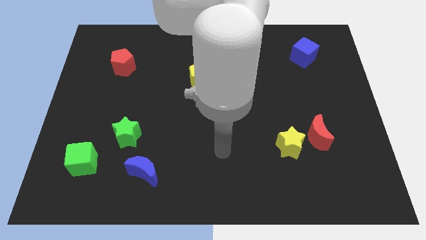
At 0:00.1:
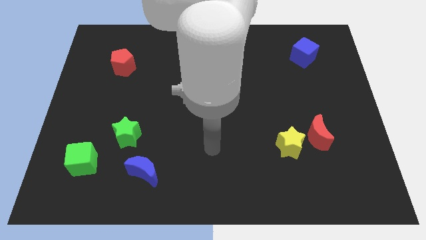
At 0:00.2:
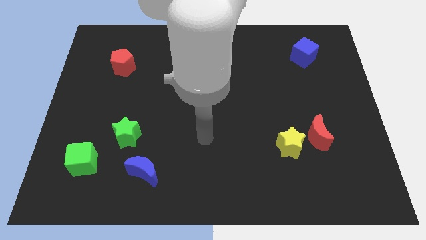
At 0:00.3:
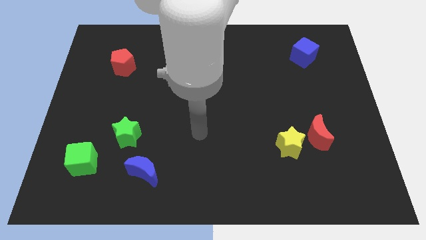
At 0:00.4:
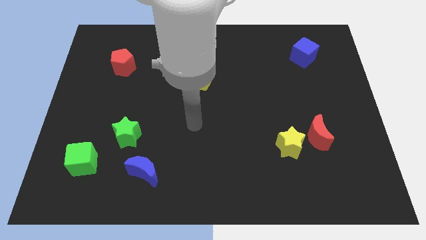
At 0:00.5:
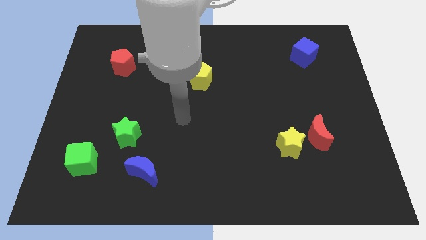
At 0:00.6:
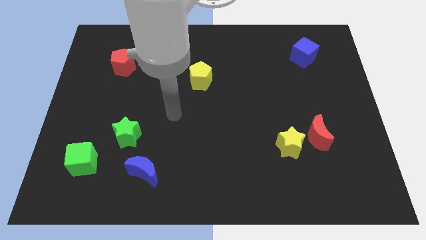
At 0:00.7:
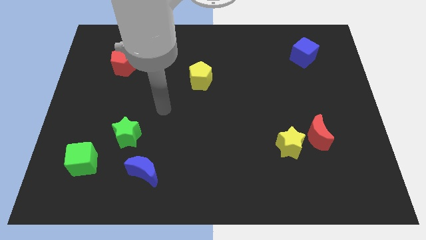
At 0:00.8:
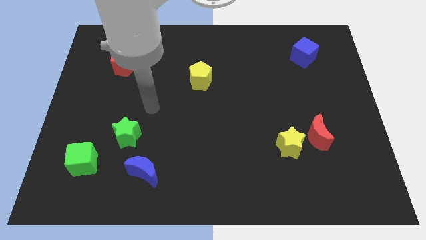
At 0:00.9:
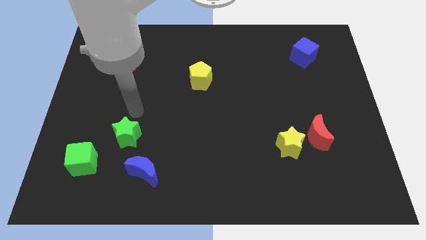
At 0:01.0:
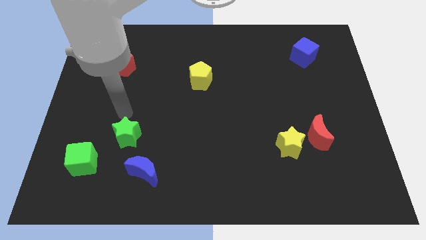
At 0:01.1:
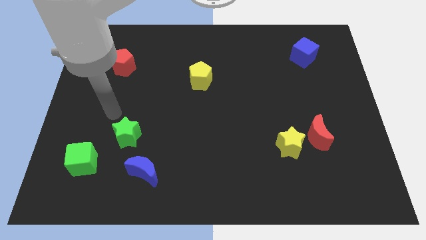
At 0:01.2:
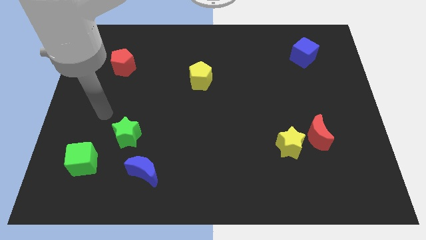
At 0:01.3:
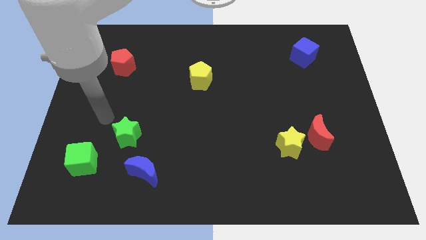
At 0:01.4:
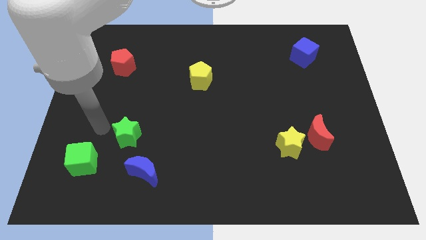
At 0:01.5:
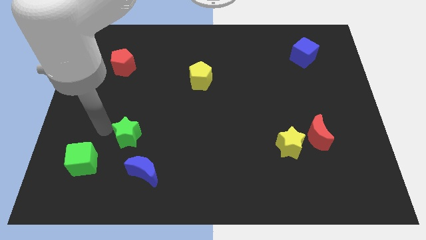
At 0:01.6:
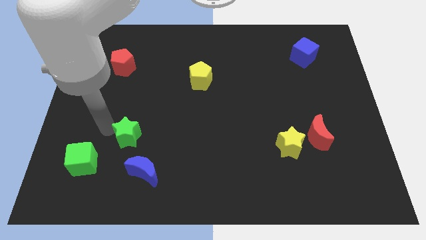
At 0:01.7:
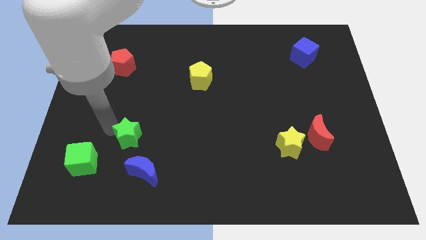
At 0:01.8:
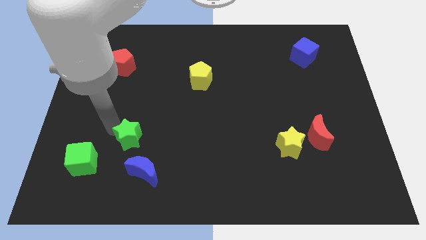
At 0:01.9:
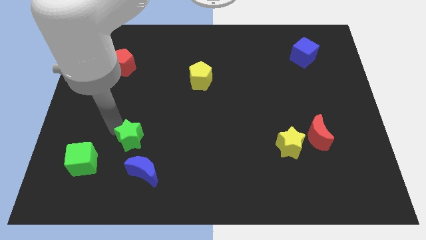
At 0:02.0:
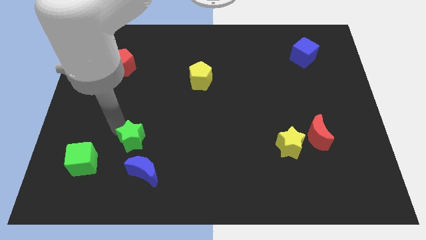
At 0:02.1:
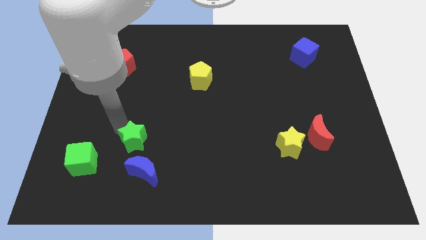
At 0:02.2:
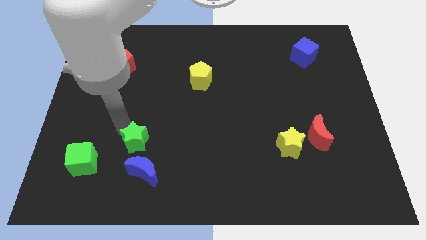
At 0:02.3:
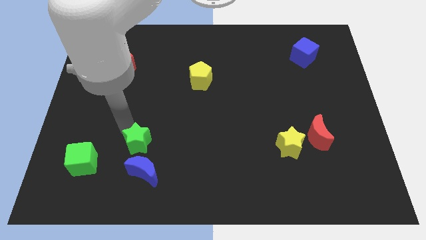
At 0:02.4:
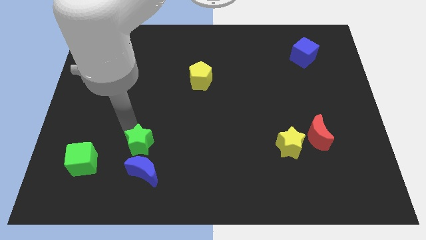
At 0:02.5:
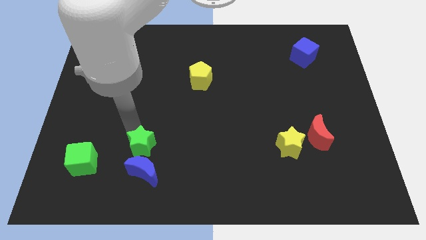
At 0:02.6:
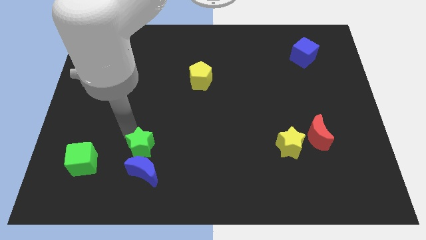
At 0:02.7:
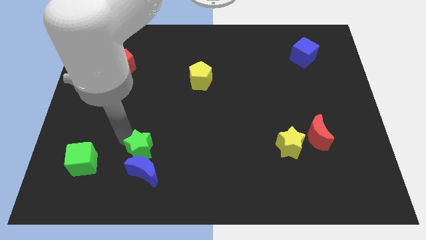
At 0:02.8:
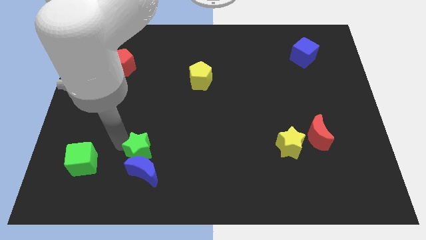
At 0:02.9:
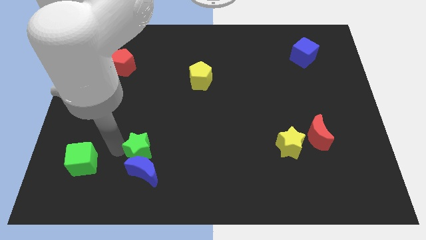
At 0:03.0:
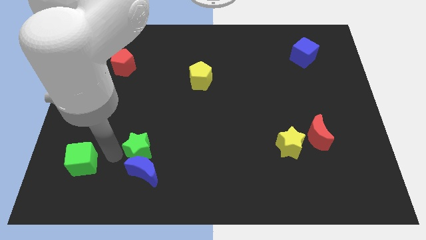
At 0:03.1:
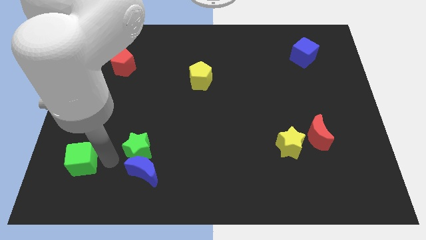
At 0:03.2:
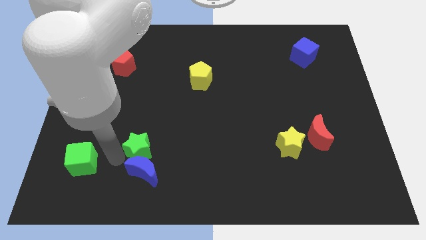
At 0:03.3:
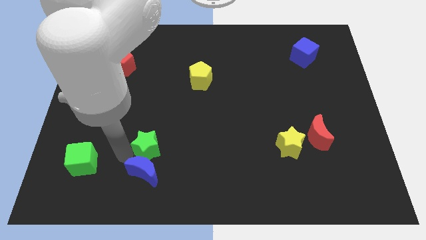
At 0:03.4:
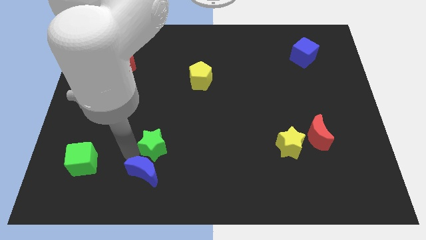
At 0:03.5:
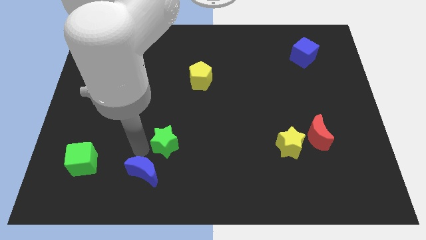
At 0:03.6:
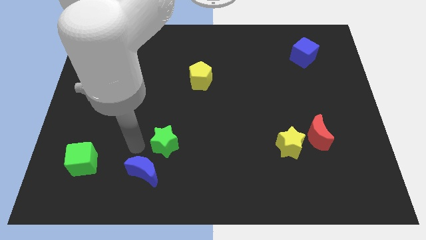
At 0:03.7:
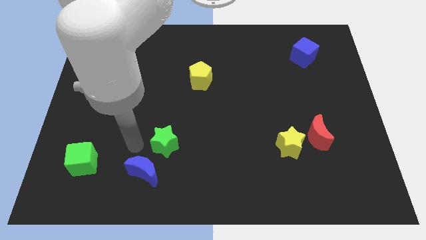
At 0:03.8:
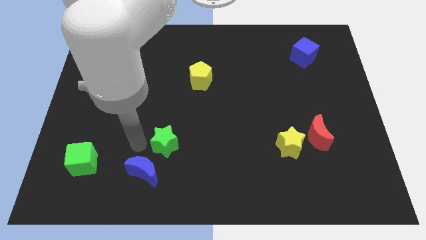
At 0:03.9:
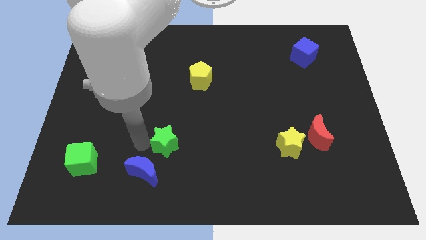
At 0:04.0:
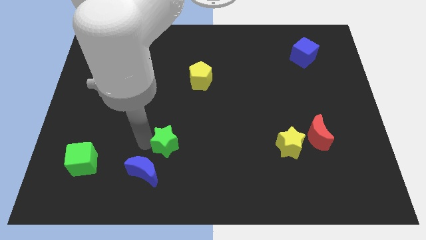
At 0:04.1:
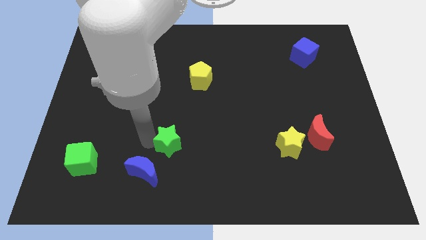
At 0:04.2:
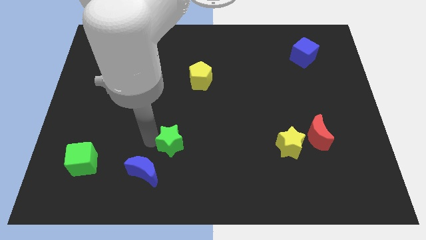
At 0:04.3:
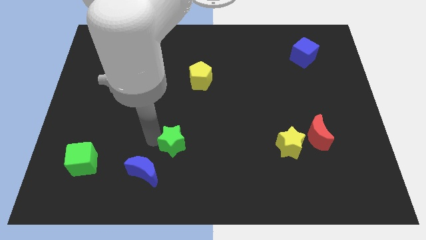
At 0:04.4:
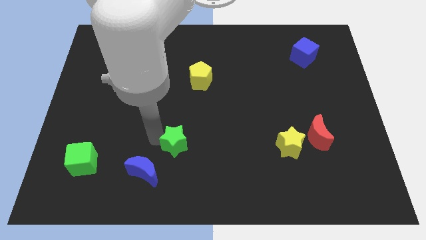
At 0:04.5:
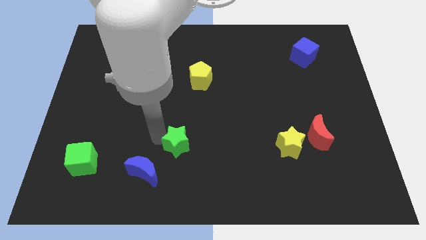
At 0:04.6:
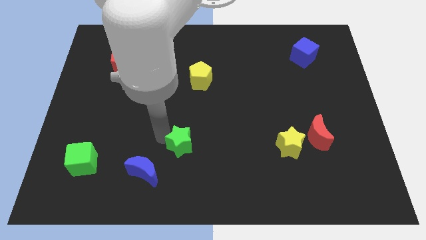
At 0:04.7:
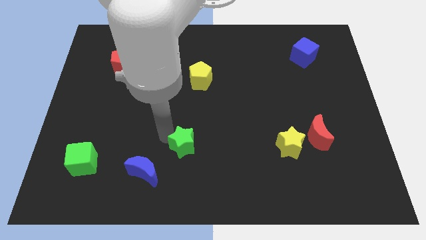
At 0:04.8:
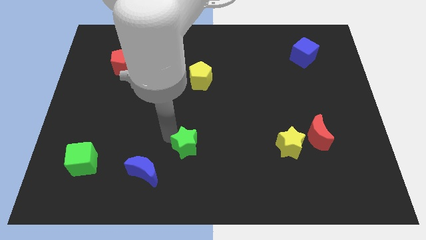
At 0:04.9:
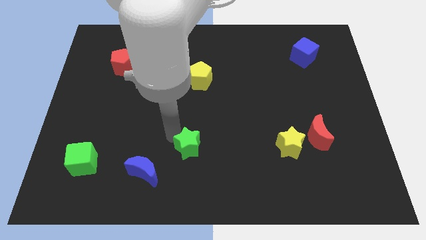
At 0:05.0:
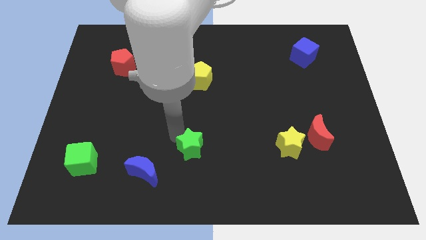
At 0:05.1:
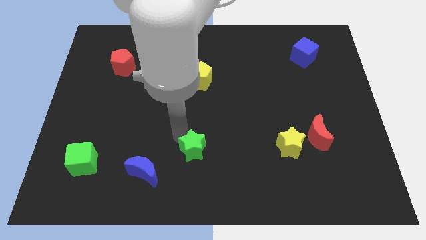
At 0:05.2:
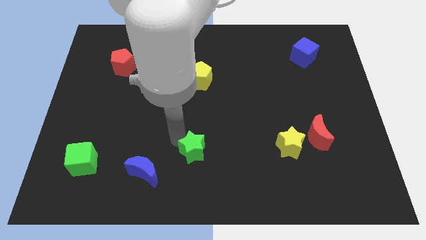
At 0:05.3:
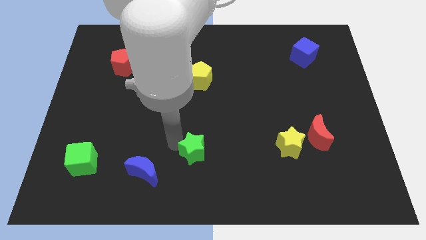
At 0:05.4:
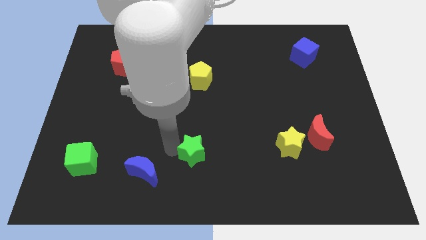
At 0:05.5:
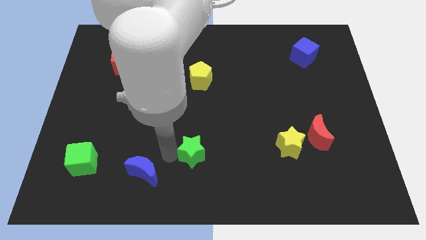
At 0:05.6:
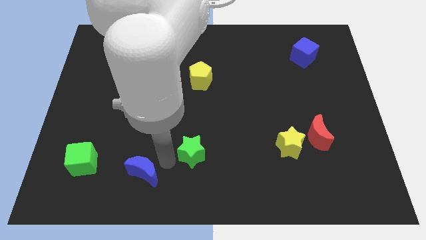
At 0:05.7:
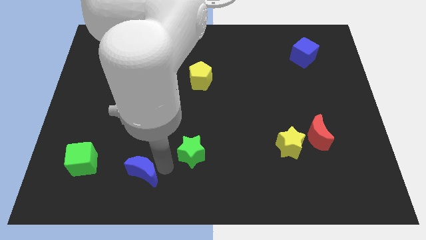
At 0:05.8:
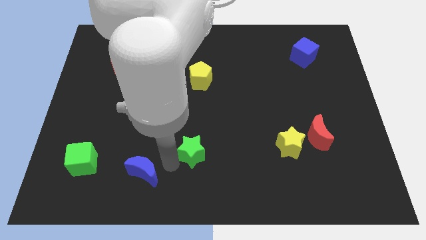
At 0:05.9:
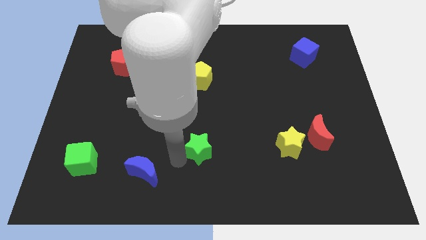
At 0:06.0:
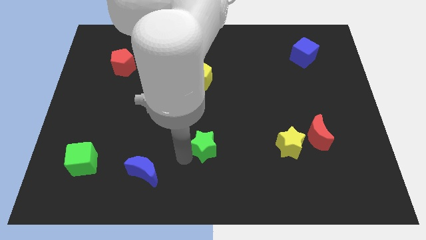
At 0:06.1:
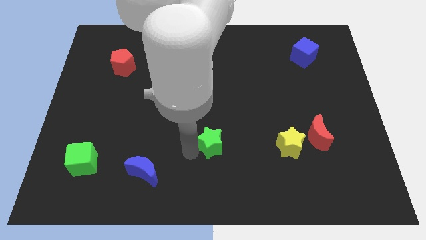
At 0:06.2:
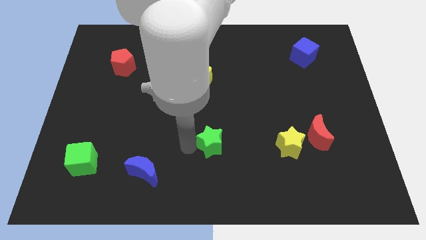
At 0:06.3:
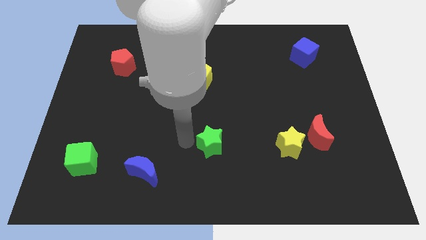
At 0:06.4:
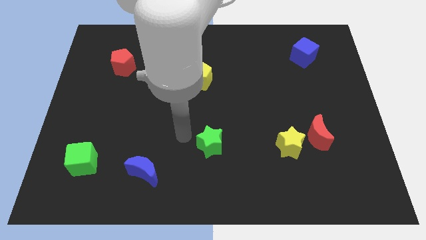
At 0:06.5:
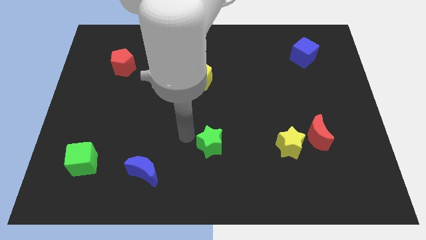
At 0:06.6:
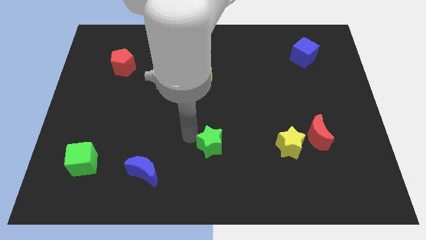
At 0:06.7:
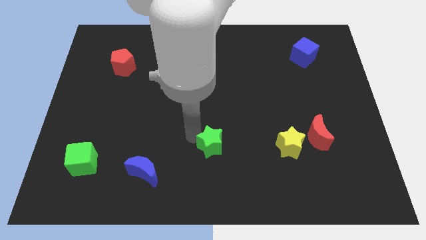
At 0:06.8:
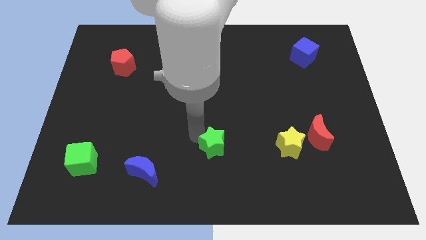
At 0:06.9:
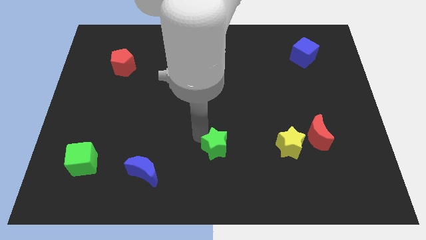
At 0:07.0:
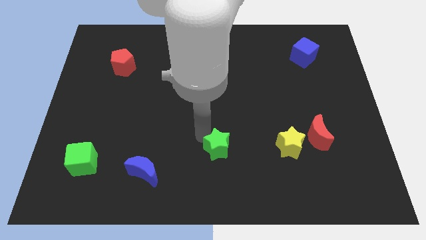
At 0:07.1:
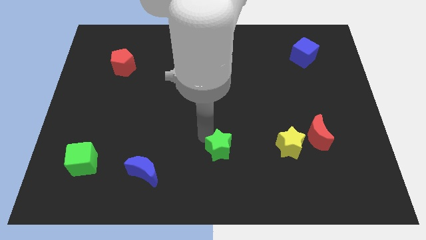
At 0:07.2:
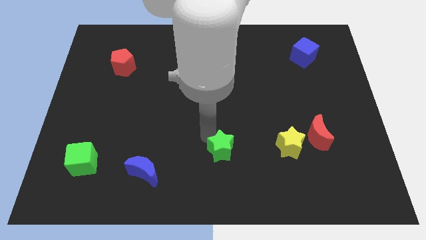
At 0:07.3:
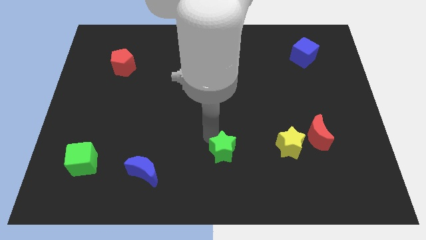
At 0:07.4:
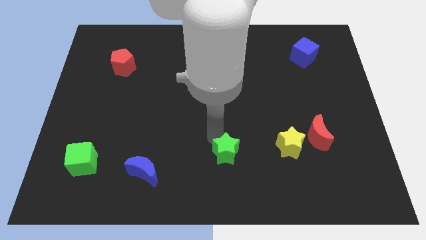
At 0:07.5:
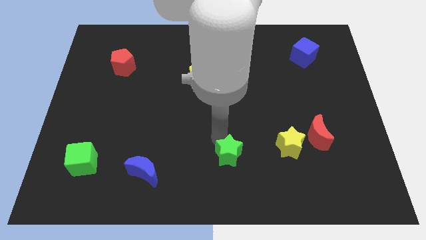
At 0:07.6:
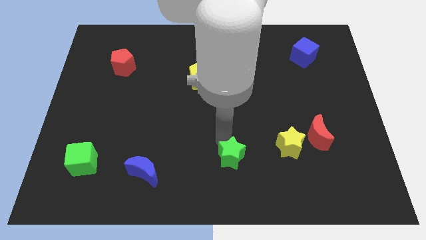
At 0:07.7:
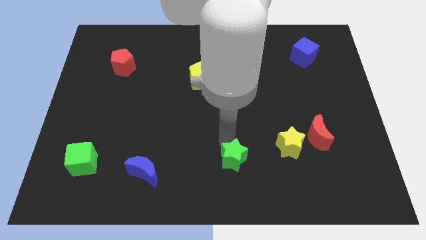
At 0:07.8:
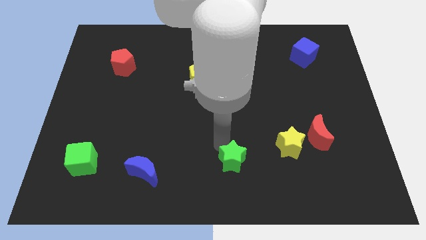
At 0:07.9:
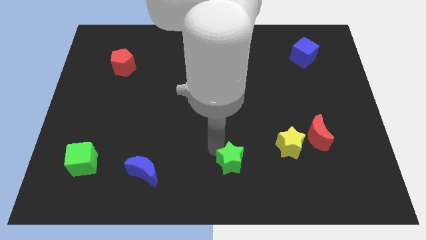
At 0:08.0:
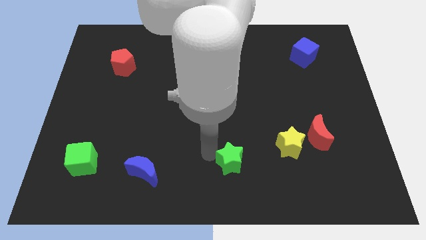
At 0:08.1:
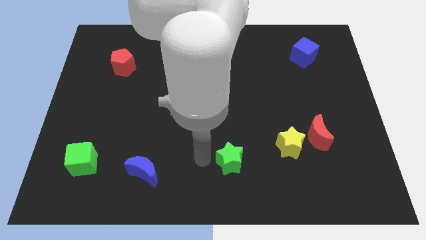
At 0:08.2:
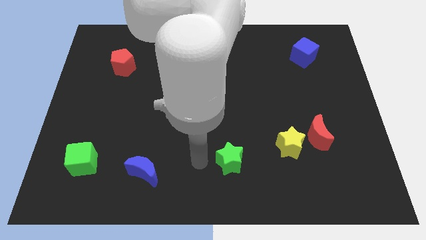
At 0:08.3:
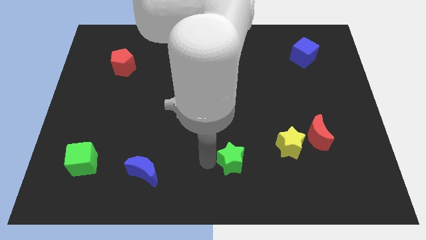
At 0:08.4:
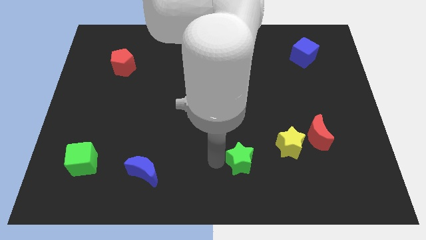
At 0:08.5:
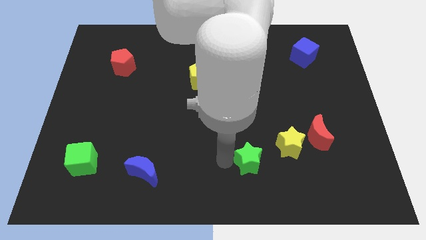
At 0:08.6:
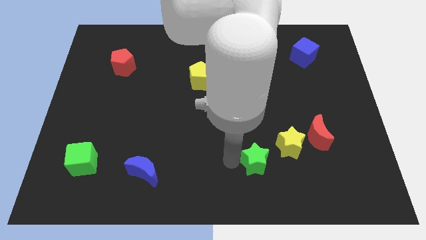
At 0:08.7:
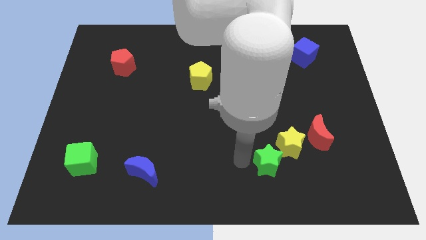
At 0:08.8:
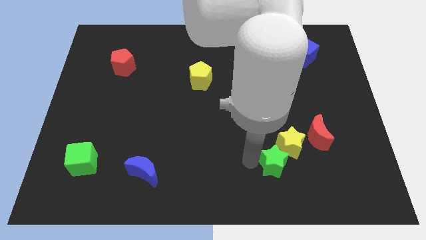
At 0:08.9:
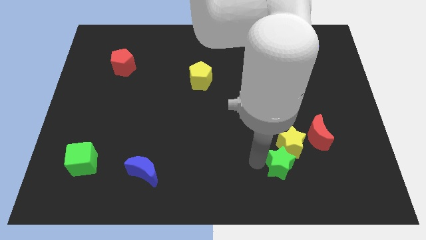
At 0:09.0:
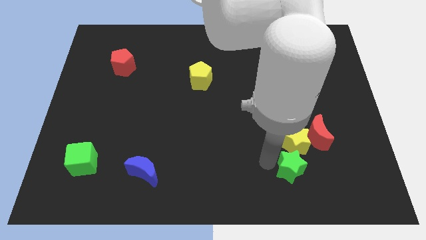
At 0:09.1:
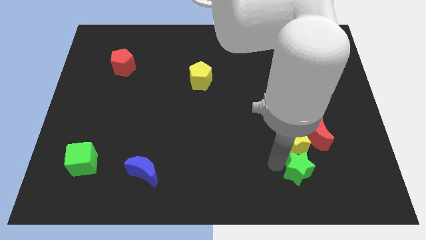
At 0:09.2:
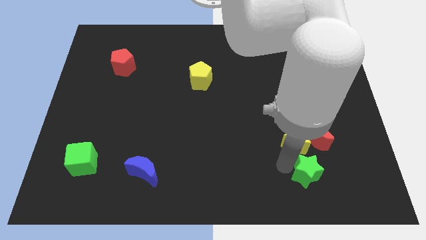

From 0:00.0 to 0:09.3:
put the green star to the bottom of the red moon
